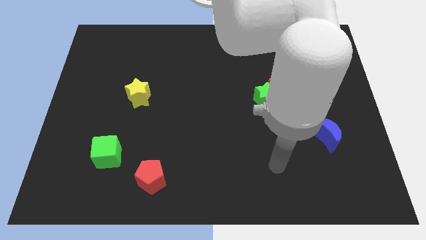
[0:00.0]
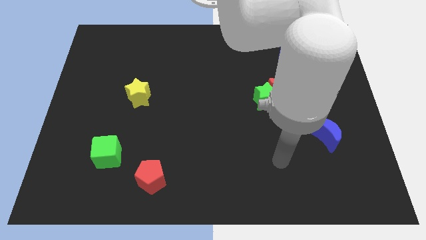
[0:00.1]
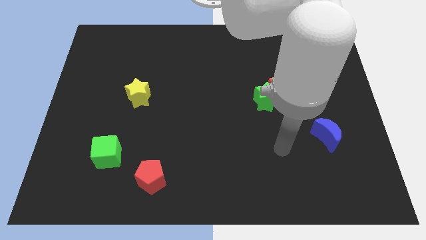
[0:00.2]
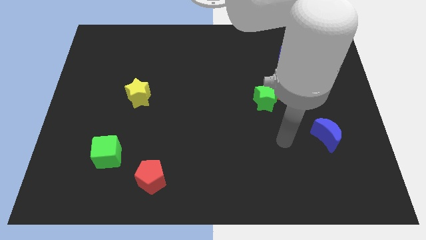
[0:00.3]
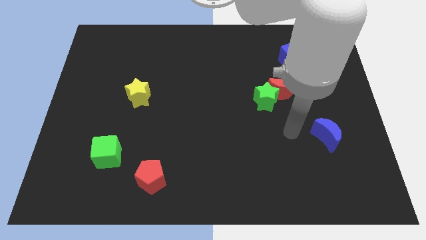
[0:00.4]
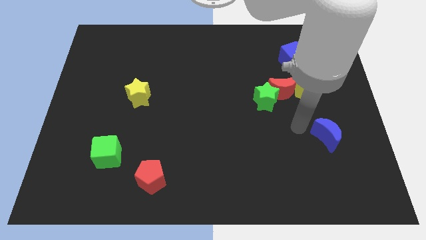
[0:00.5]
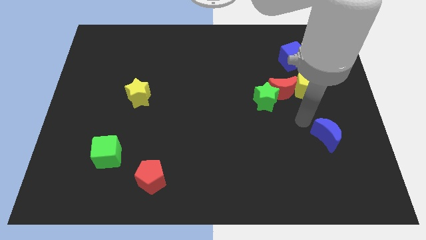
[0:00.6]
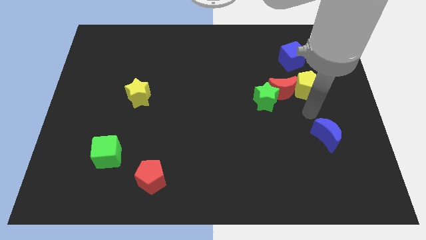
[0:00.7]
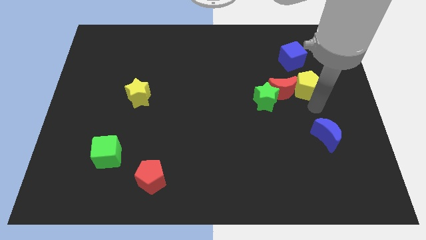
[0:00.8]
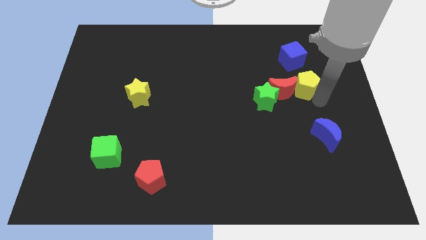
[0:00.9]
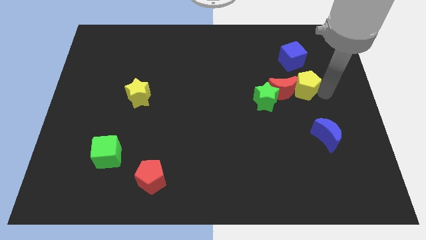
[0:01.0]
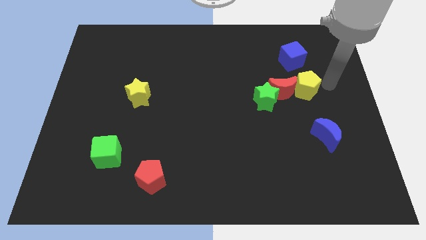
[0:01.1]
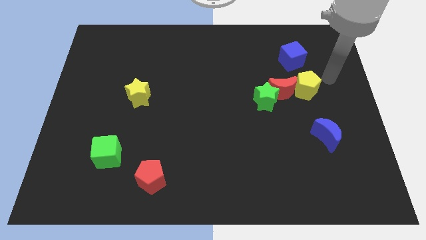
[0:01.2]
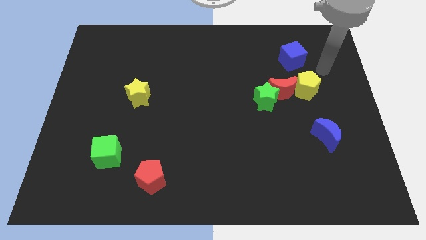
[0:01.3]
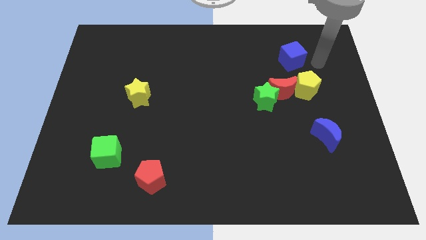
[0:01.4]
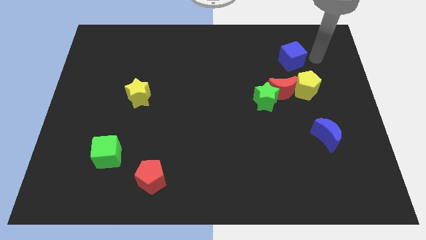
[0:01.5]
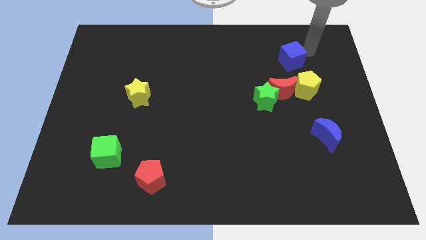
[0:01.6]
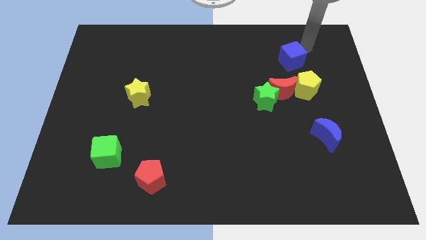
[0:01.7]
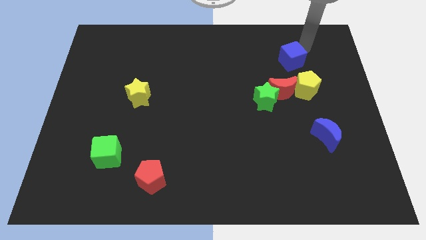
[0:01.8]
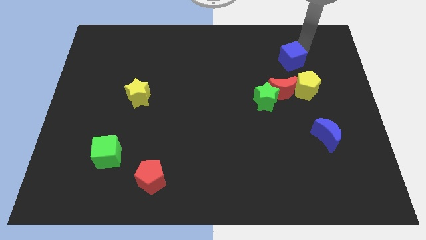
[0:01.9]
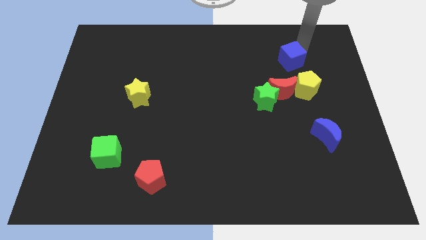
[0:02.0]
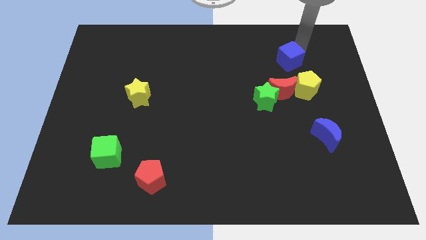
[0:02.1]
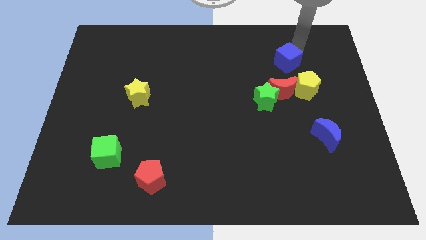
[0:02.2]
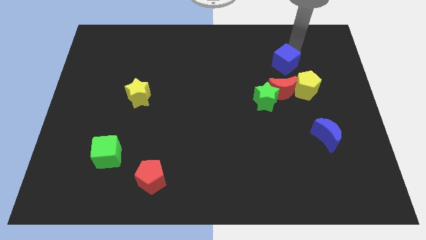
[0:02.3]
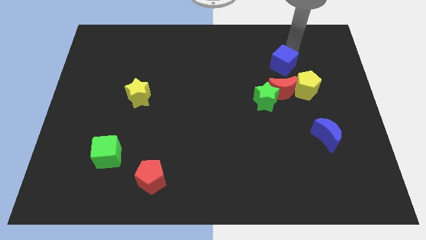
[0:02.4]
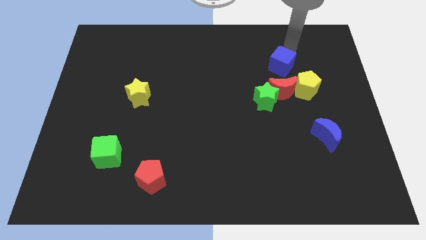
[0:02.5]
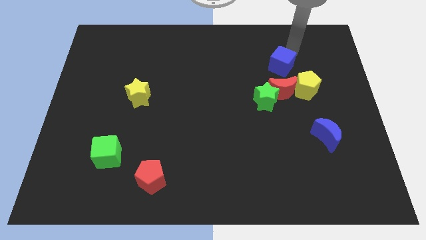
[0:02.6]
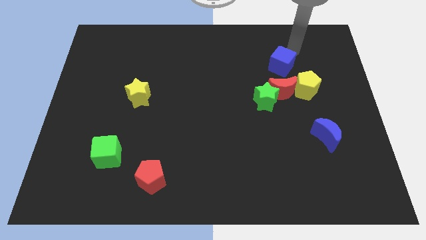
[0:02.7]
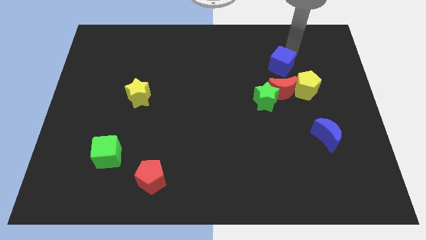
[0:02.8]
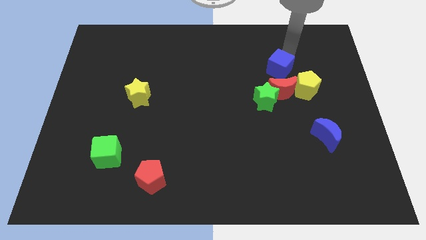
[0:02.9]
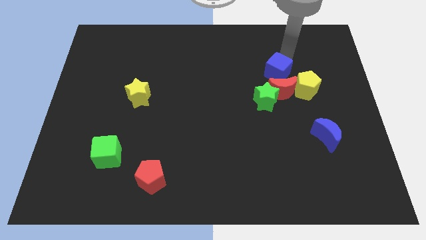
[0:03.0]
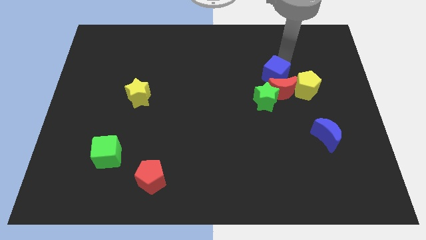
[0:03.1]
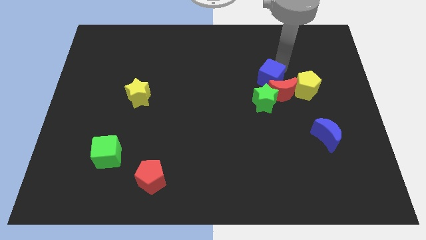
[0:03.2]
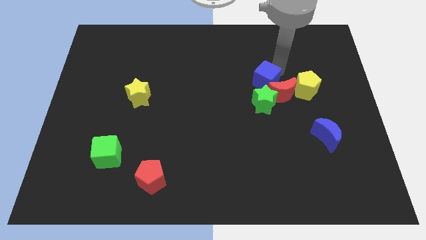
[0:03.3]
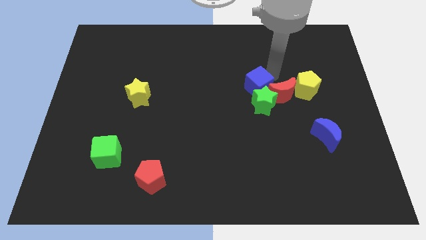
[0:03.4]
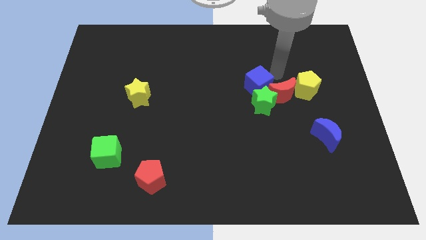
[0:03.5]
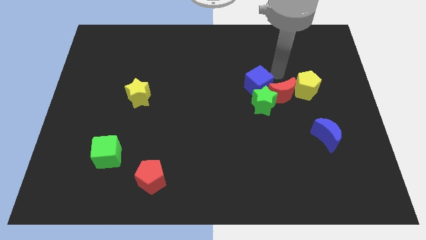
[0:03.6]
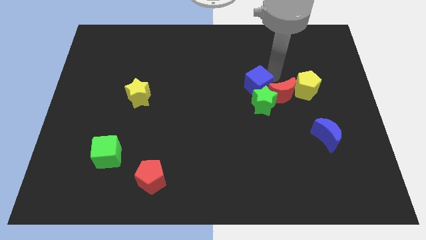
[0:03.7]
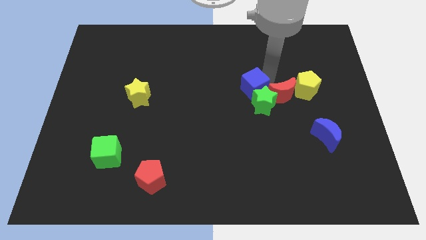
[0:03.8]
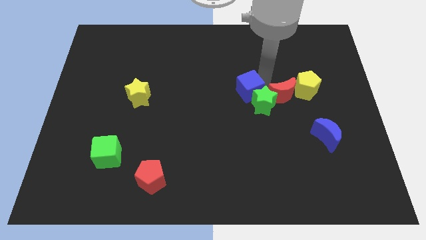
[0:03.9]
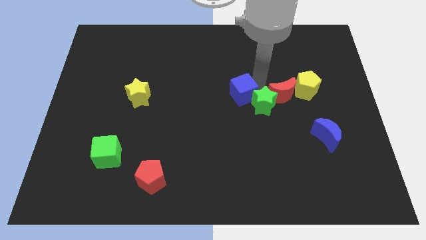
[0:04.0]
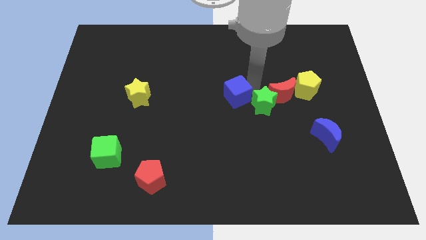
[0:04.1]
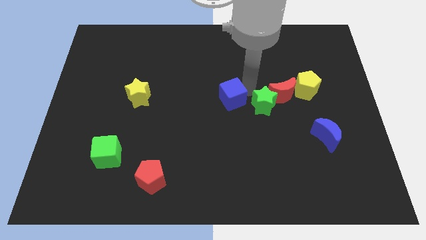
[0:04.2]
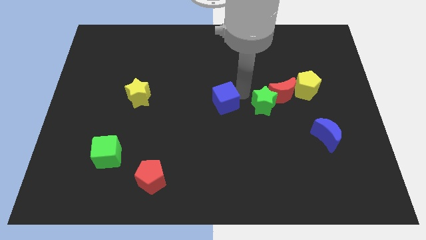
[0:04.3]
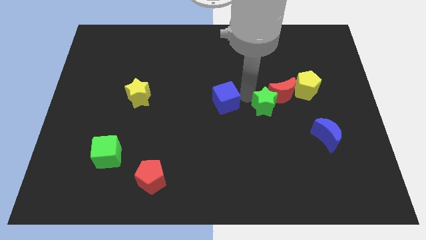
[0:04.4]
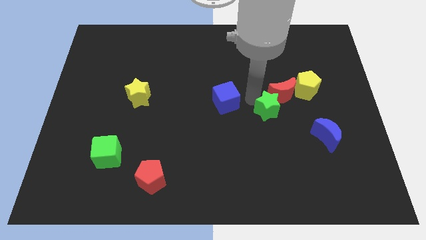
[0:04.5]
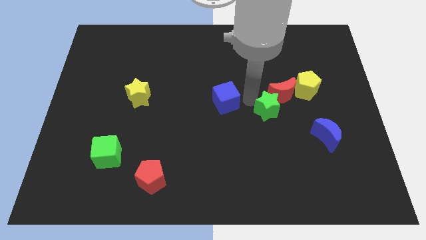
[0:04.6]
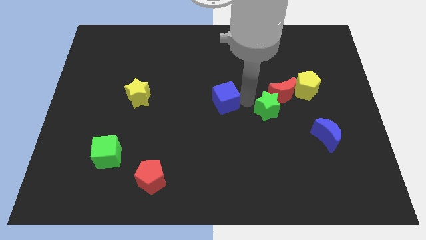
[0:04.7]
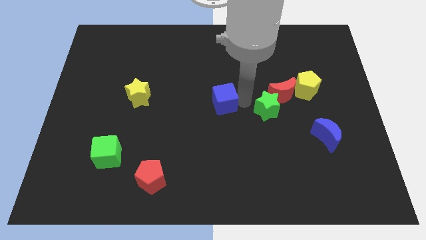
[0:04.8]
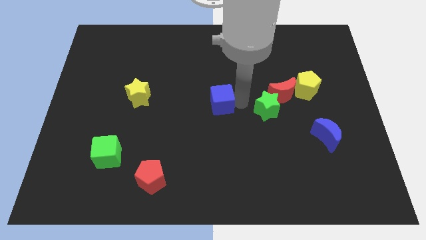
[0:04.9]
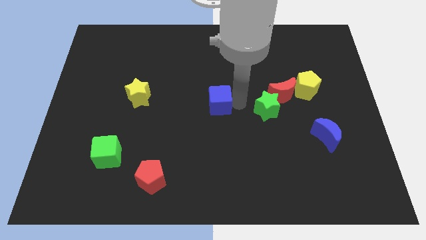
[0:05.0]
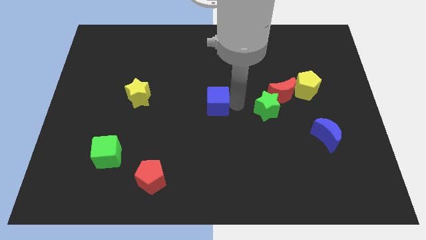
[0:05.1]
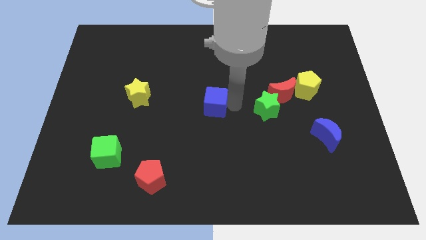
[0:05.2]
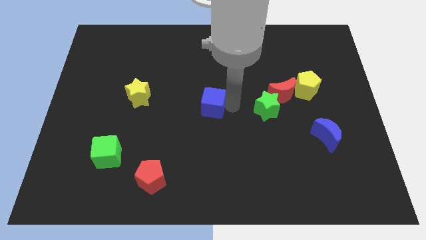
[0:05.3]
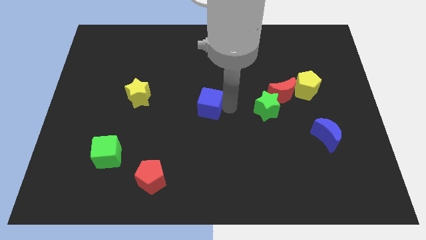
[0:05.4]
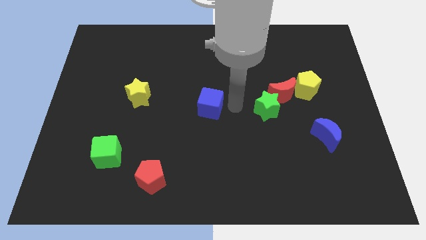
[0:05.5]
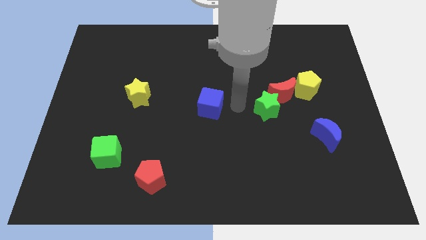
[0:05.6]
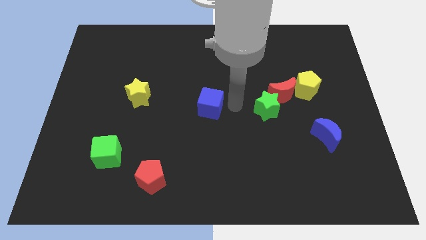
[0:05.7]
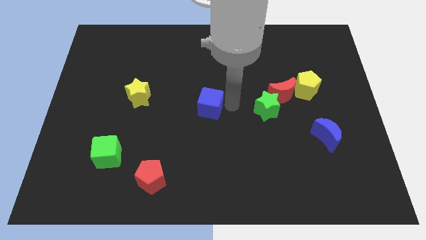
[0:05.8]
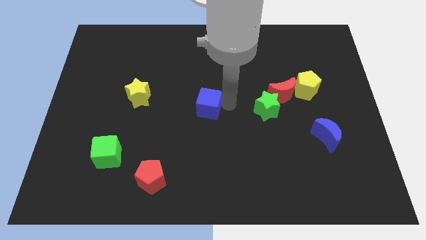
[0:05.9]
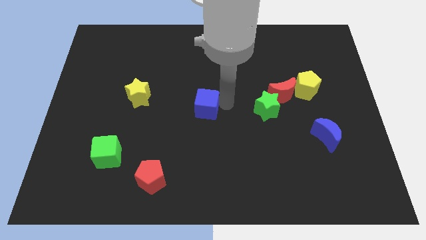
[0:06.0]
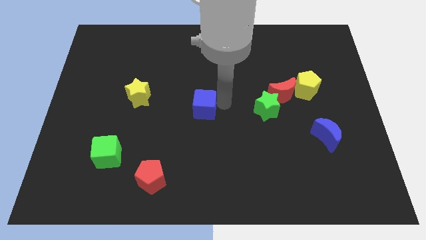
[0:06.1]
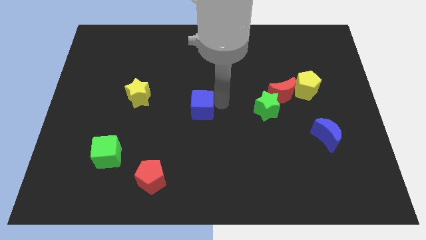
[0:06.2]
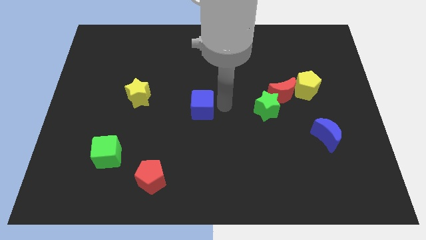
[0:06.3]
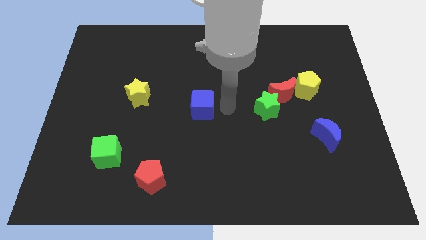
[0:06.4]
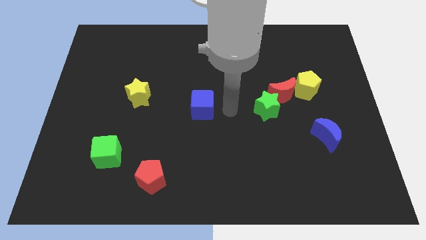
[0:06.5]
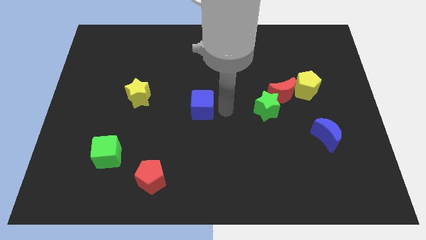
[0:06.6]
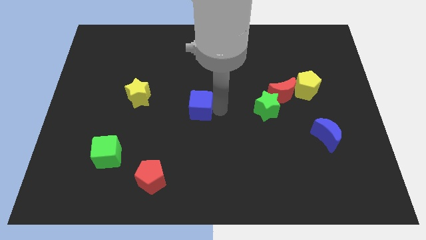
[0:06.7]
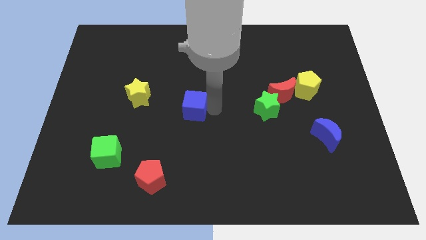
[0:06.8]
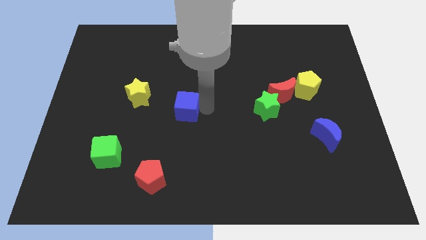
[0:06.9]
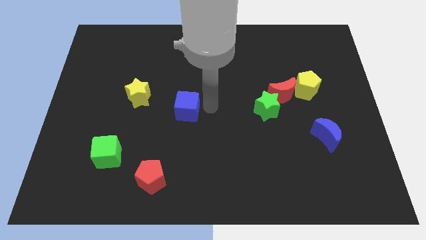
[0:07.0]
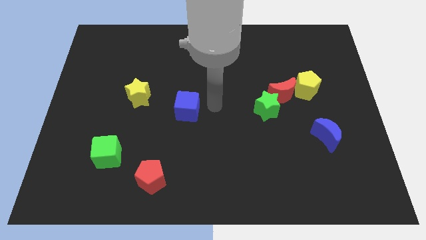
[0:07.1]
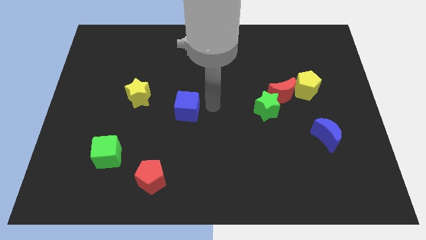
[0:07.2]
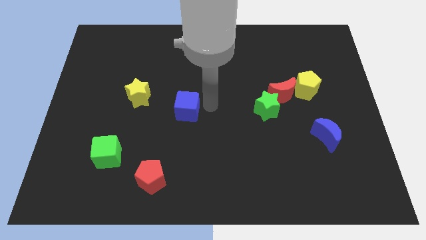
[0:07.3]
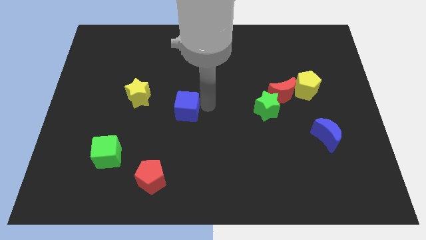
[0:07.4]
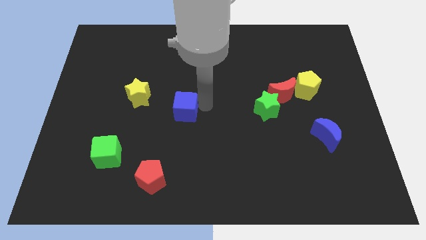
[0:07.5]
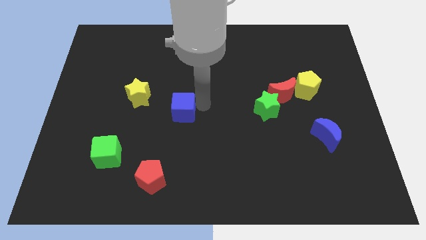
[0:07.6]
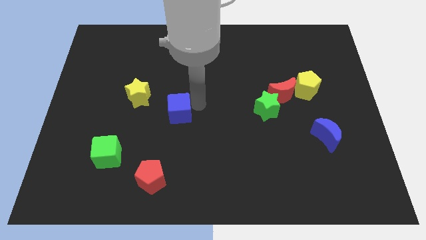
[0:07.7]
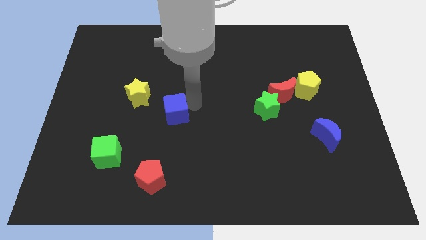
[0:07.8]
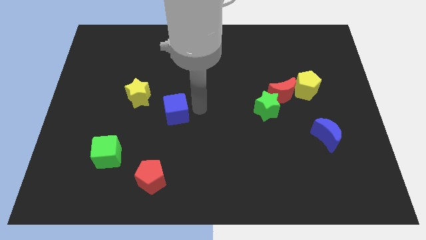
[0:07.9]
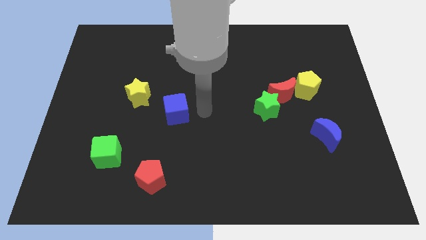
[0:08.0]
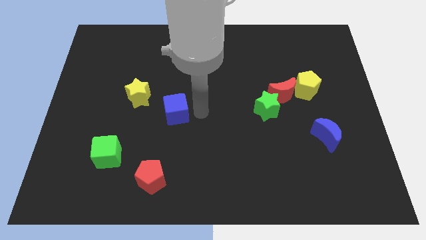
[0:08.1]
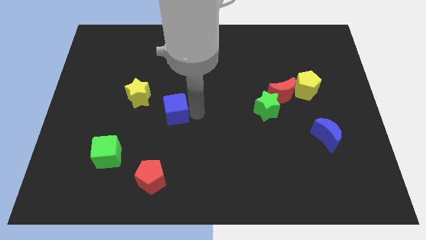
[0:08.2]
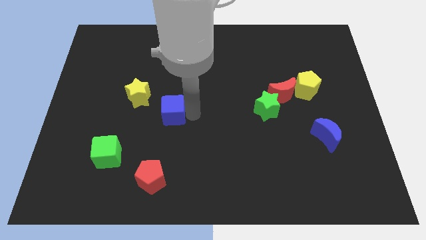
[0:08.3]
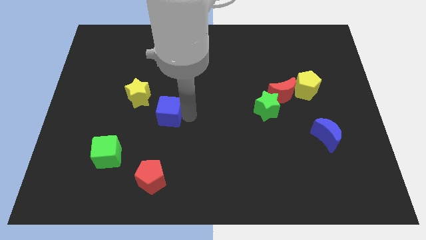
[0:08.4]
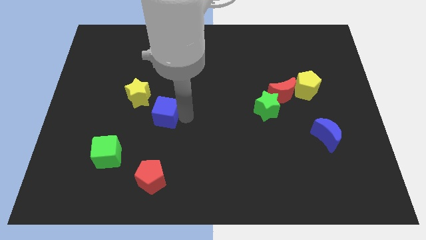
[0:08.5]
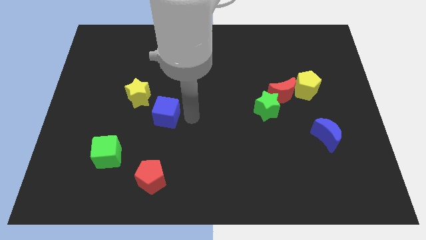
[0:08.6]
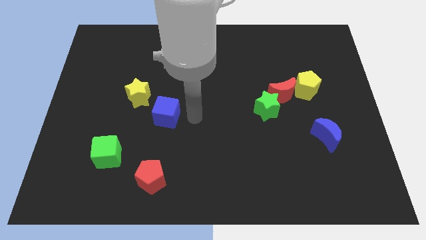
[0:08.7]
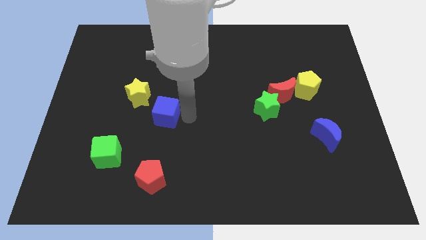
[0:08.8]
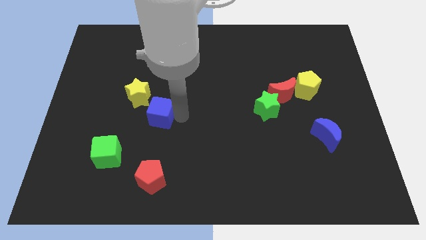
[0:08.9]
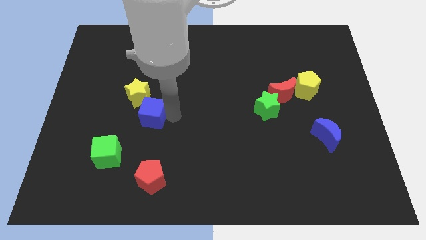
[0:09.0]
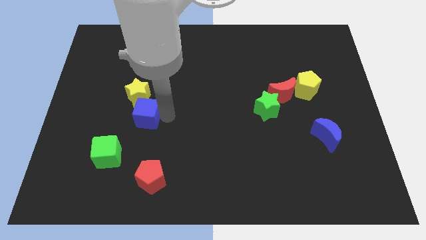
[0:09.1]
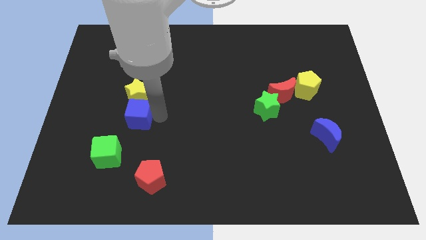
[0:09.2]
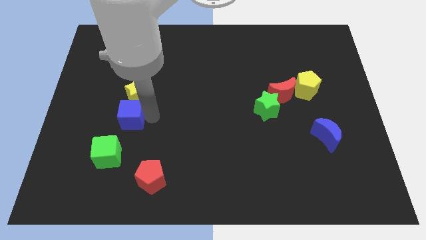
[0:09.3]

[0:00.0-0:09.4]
slide the blue cube to the top of the green cube
